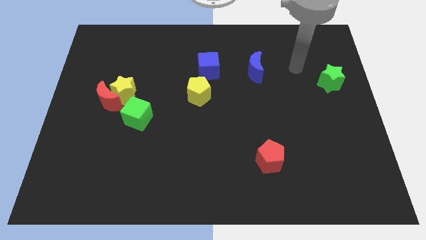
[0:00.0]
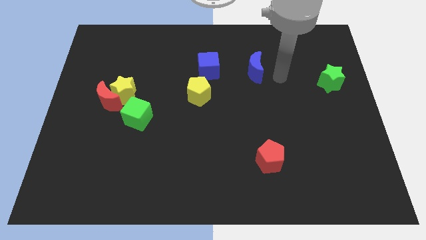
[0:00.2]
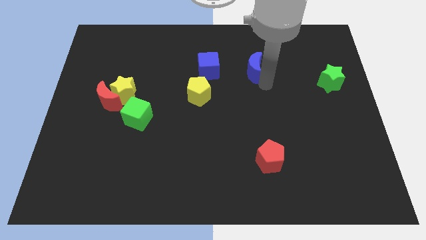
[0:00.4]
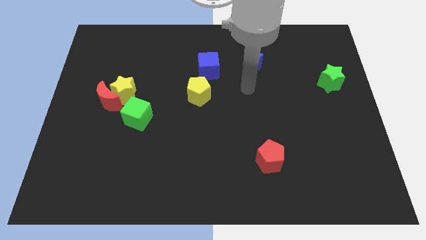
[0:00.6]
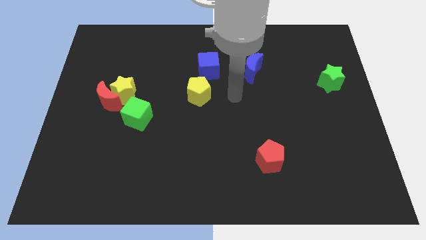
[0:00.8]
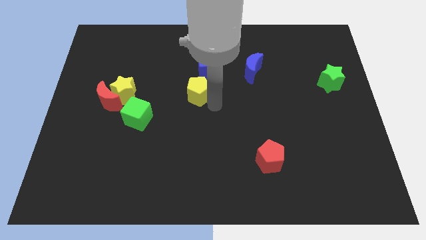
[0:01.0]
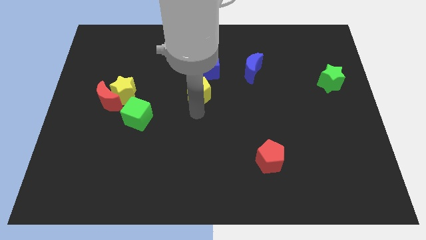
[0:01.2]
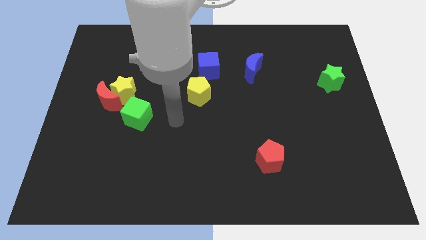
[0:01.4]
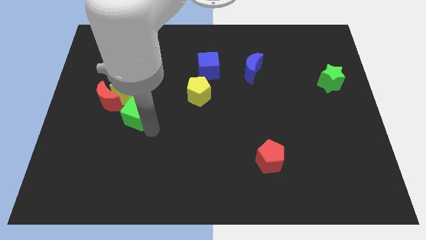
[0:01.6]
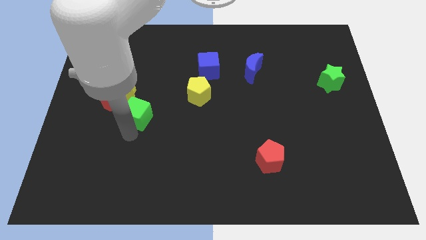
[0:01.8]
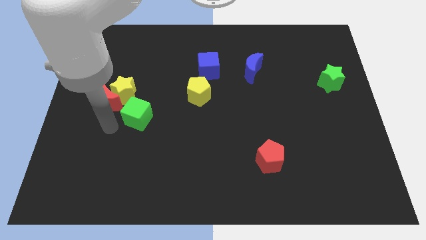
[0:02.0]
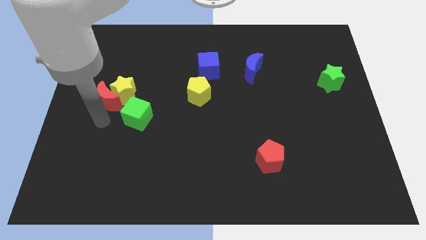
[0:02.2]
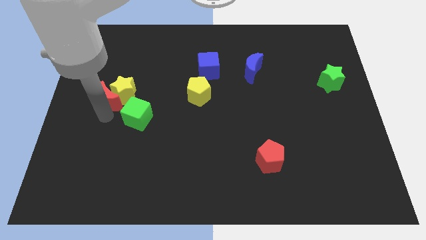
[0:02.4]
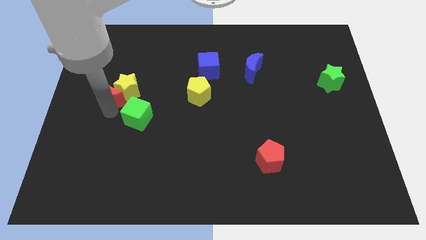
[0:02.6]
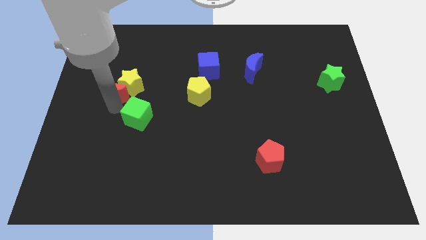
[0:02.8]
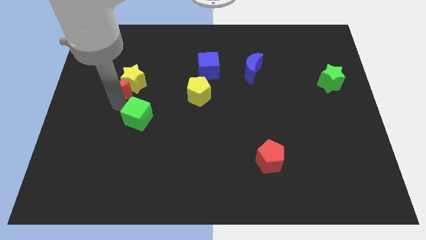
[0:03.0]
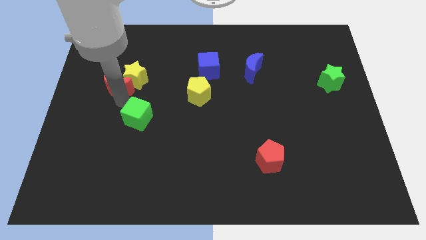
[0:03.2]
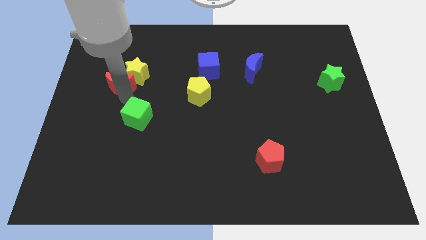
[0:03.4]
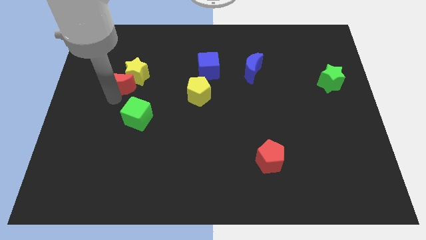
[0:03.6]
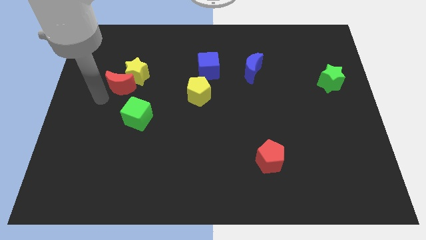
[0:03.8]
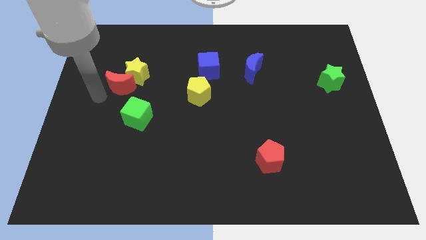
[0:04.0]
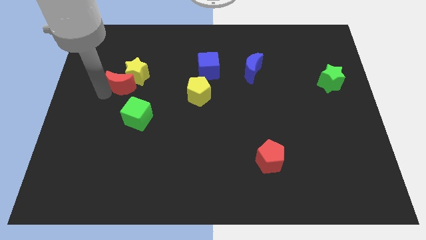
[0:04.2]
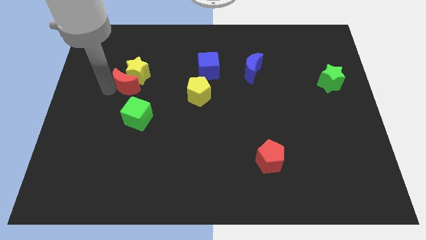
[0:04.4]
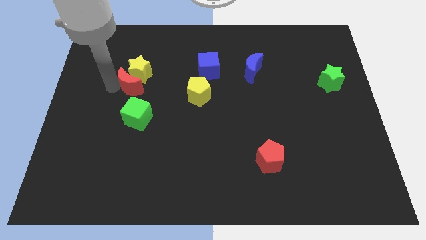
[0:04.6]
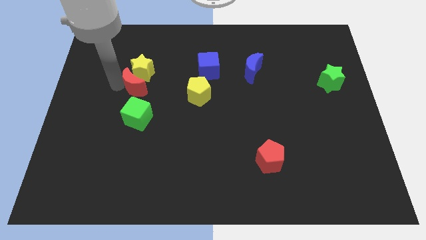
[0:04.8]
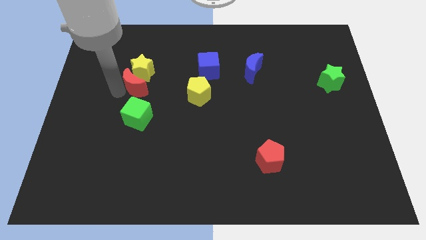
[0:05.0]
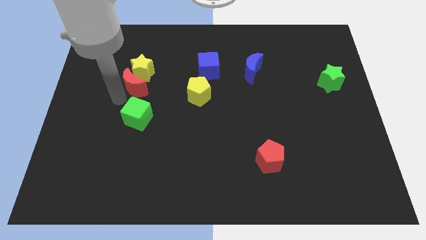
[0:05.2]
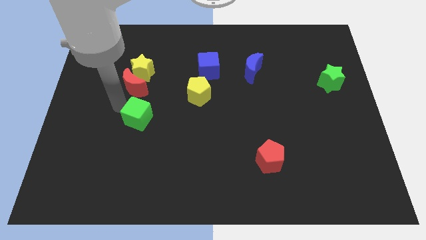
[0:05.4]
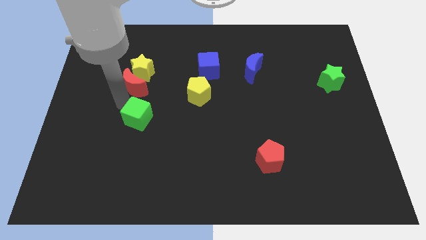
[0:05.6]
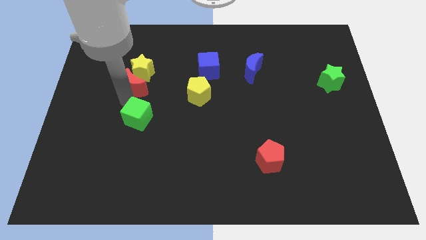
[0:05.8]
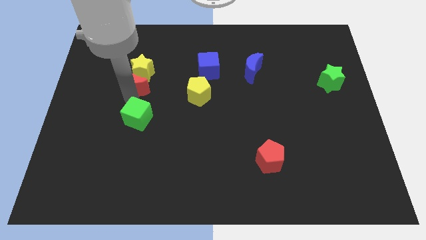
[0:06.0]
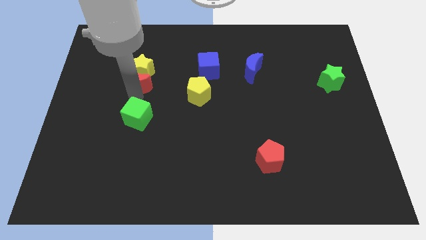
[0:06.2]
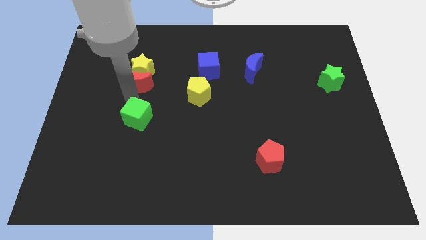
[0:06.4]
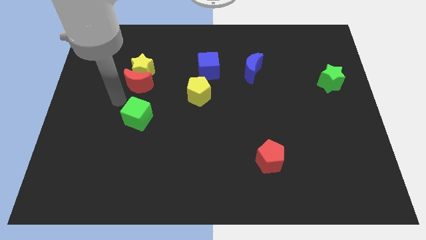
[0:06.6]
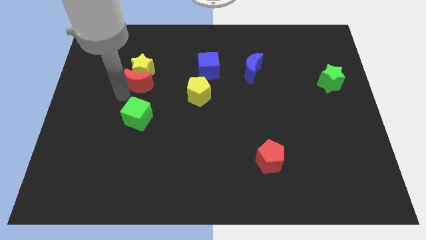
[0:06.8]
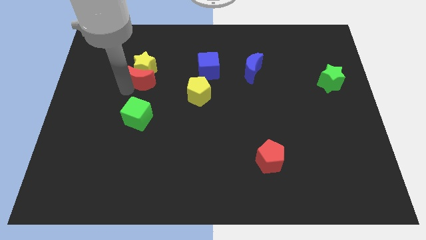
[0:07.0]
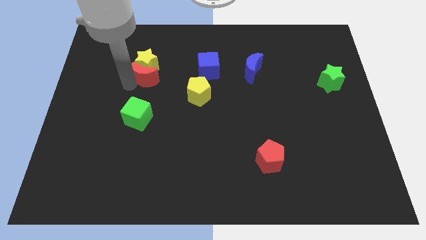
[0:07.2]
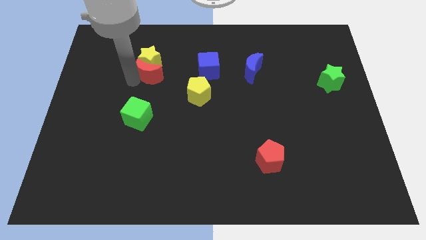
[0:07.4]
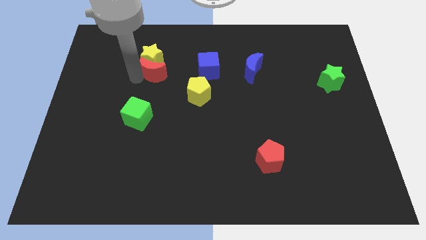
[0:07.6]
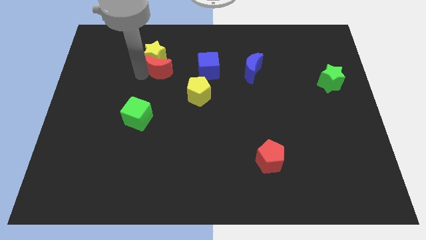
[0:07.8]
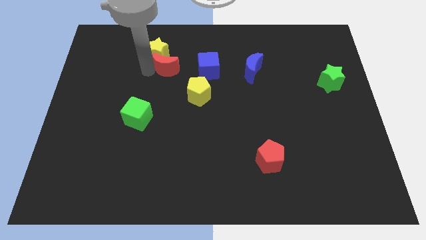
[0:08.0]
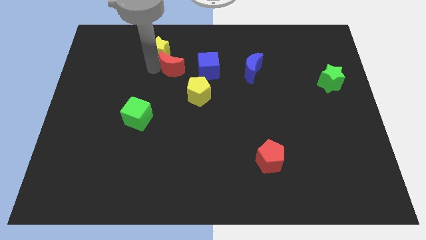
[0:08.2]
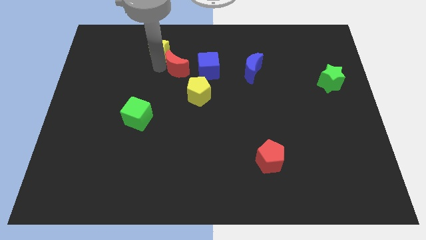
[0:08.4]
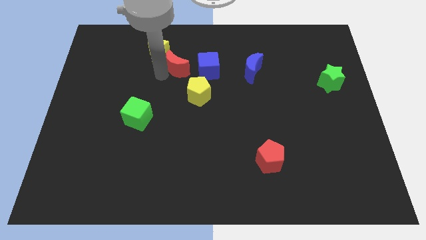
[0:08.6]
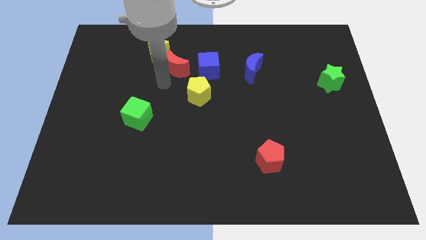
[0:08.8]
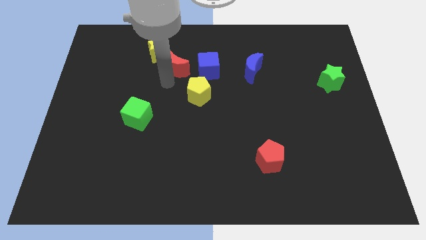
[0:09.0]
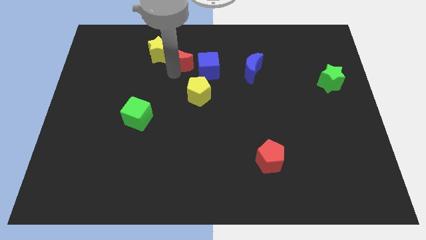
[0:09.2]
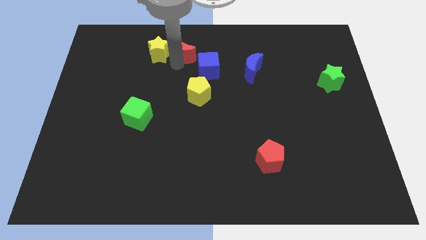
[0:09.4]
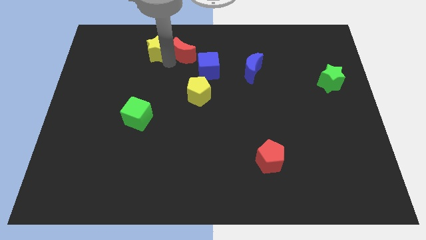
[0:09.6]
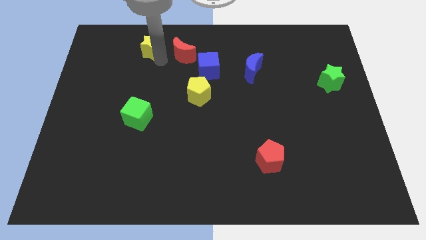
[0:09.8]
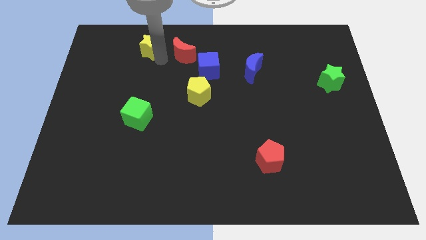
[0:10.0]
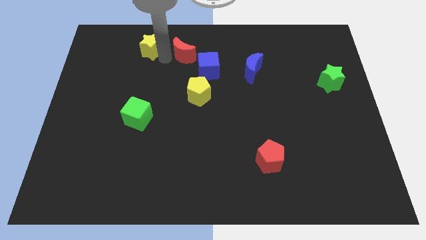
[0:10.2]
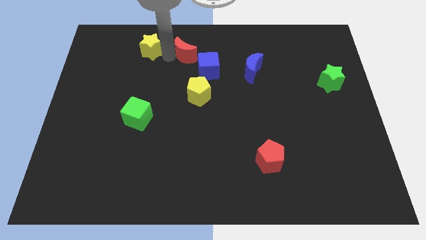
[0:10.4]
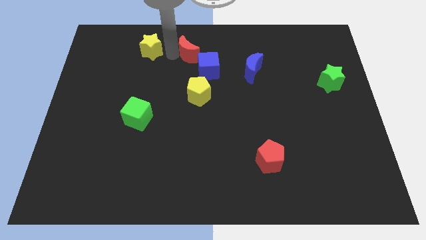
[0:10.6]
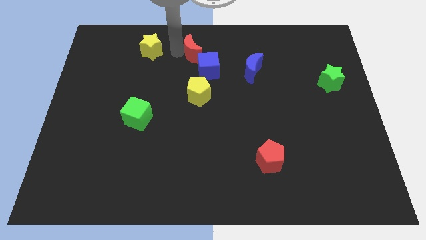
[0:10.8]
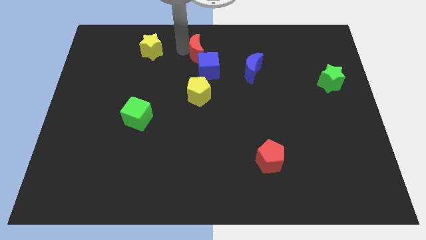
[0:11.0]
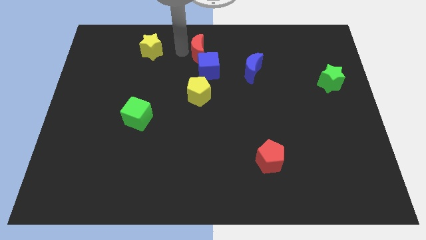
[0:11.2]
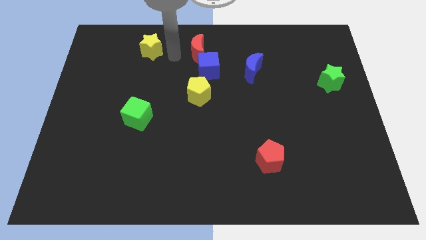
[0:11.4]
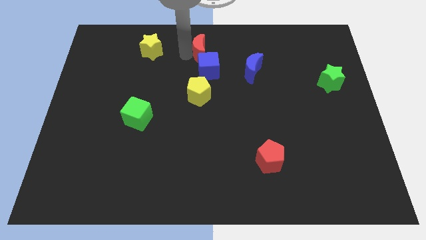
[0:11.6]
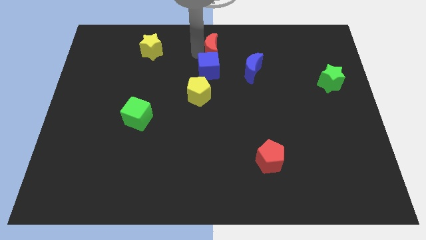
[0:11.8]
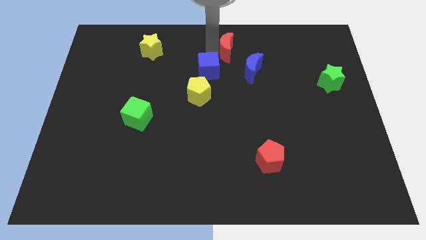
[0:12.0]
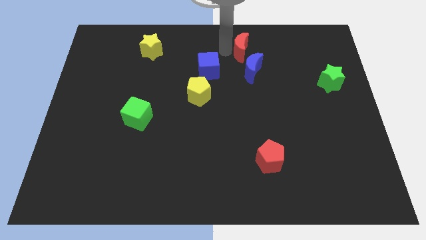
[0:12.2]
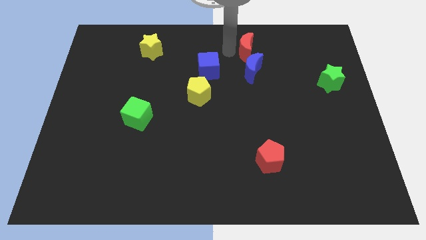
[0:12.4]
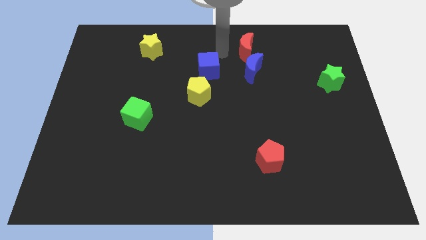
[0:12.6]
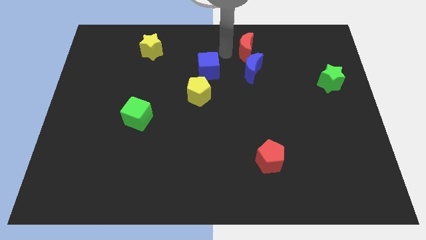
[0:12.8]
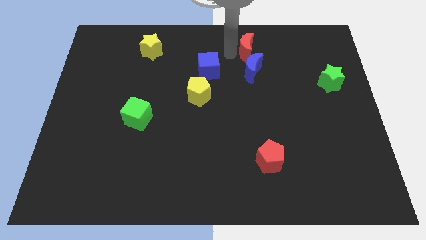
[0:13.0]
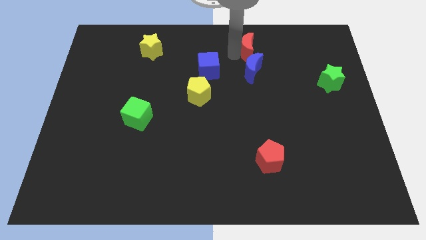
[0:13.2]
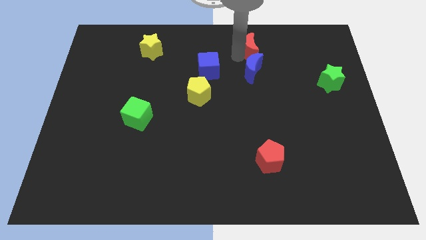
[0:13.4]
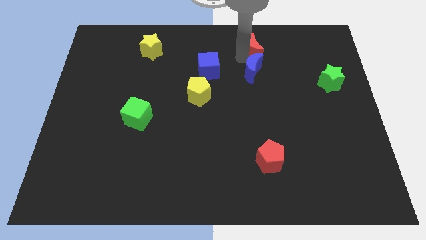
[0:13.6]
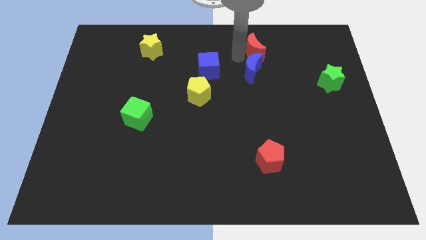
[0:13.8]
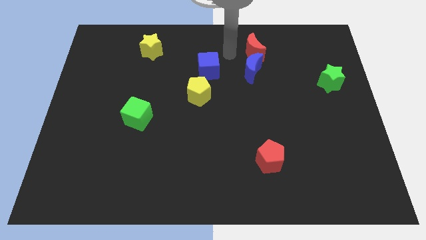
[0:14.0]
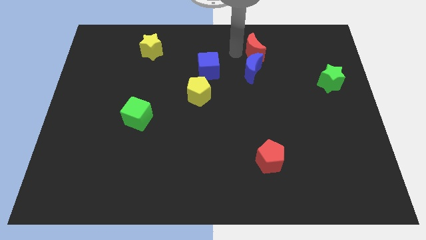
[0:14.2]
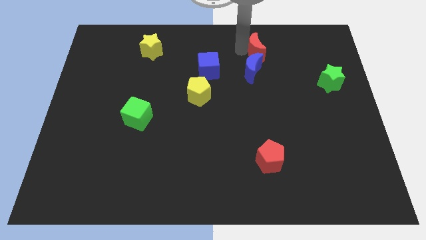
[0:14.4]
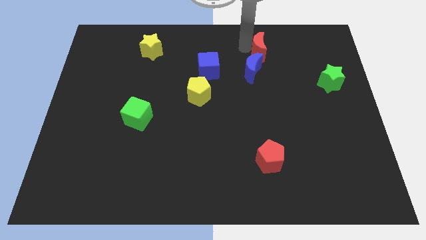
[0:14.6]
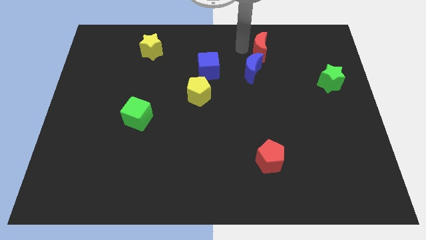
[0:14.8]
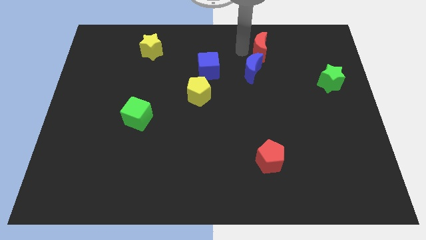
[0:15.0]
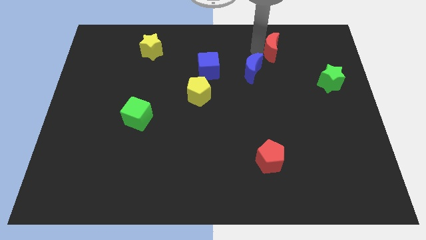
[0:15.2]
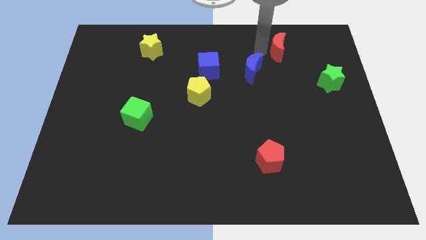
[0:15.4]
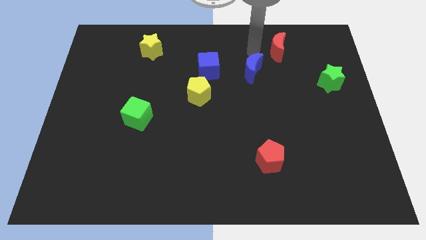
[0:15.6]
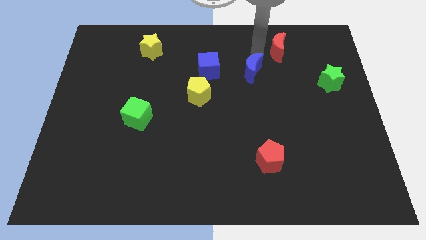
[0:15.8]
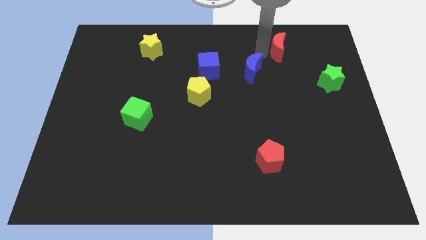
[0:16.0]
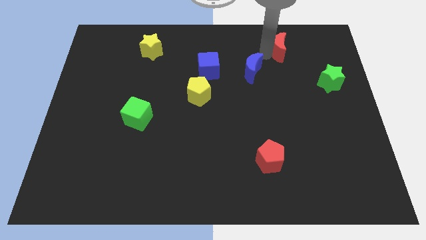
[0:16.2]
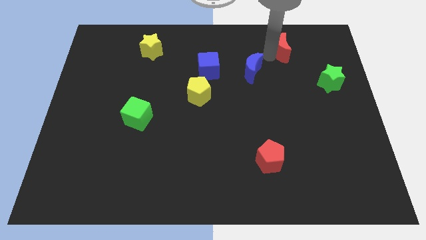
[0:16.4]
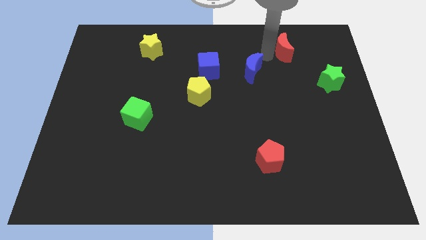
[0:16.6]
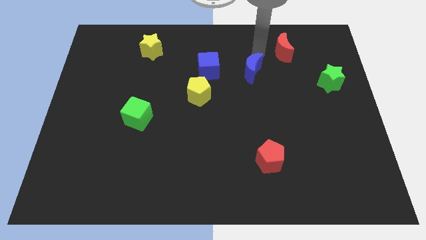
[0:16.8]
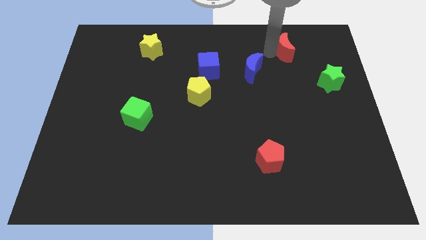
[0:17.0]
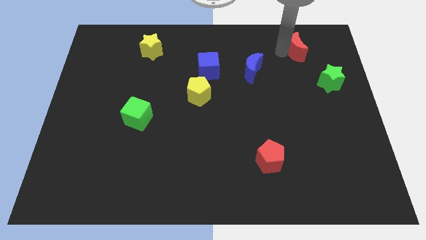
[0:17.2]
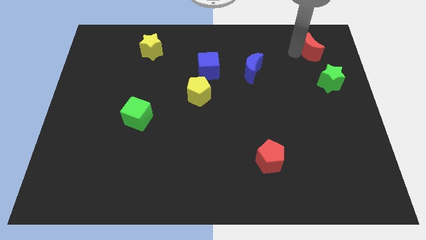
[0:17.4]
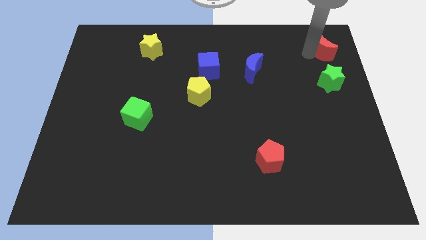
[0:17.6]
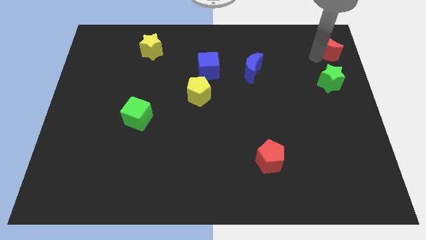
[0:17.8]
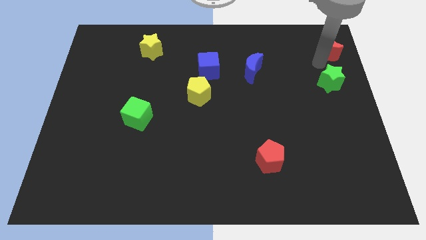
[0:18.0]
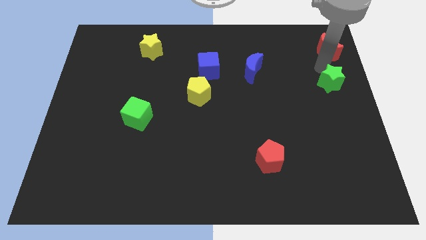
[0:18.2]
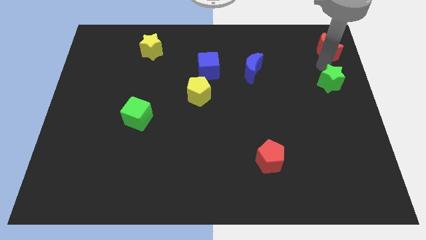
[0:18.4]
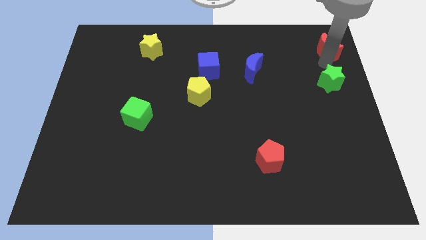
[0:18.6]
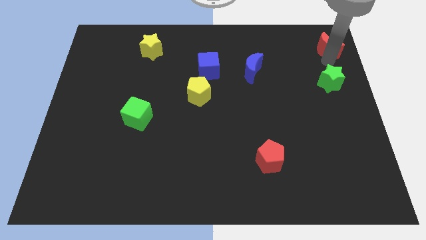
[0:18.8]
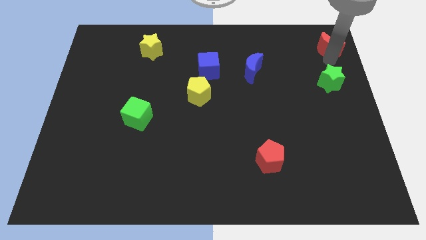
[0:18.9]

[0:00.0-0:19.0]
push the red moon to the top right of the board
